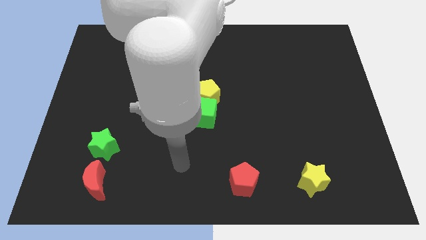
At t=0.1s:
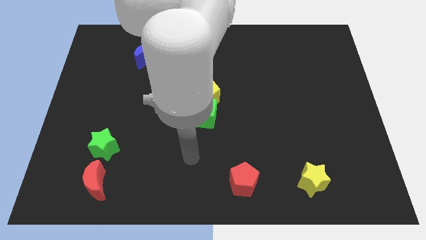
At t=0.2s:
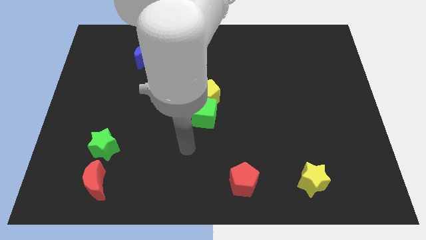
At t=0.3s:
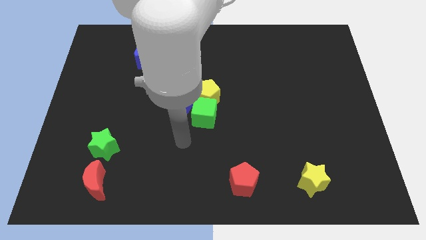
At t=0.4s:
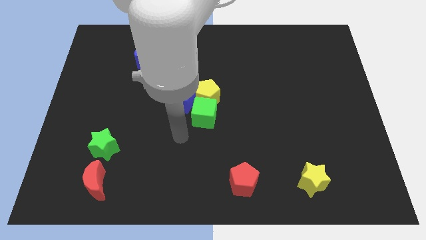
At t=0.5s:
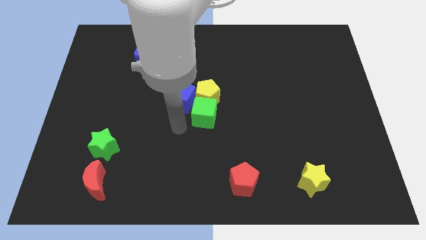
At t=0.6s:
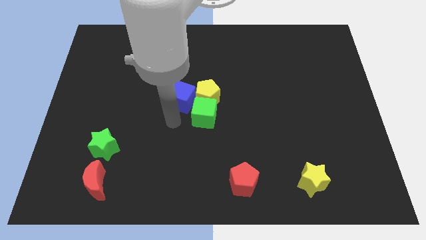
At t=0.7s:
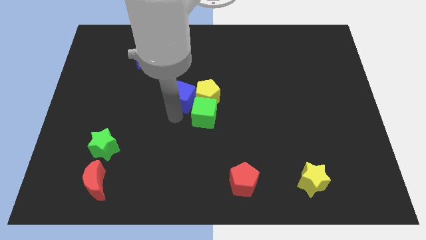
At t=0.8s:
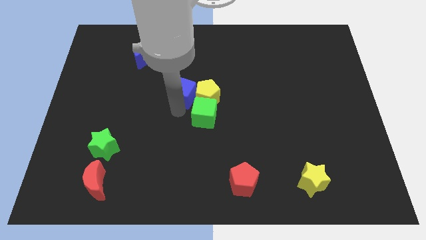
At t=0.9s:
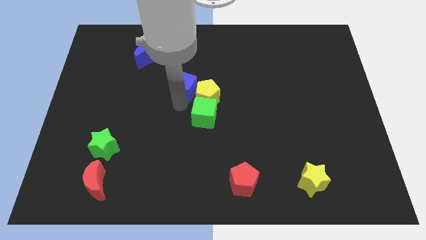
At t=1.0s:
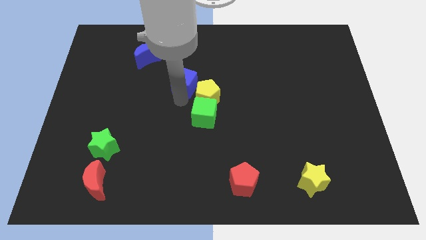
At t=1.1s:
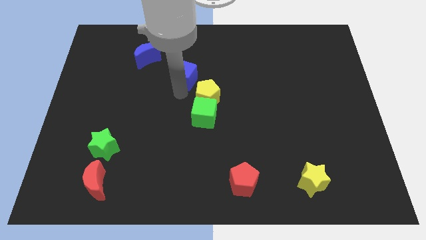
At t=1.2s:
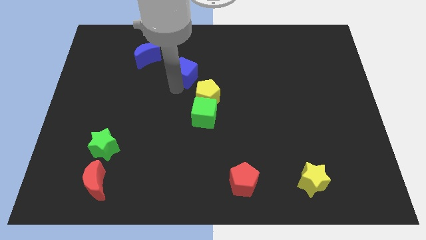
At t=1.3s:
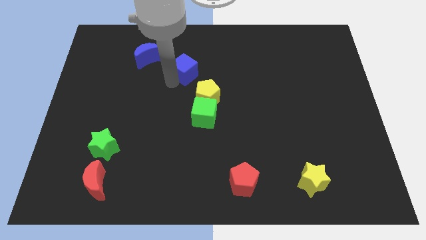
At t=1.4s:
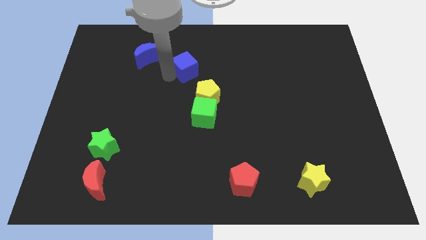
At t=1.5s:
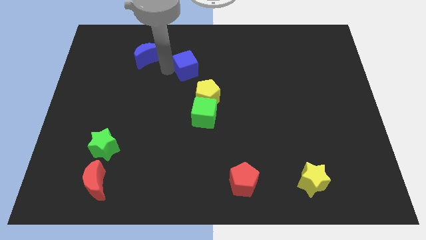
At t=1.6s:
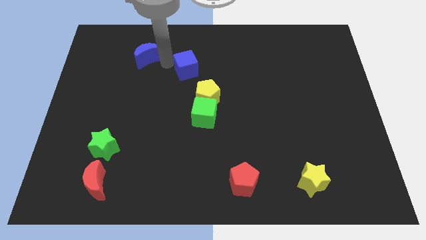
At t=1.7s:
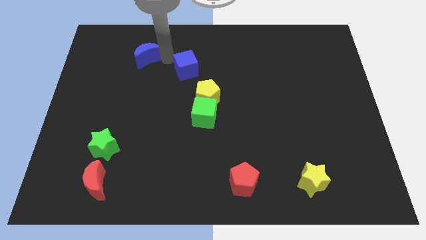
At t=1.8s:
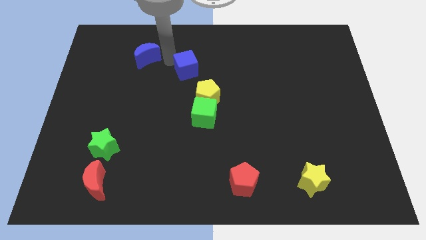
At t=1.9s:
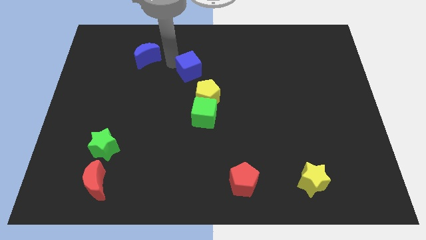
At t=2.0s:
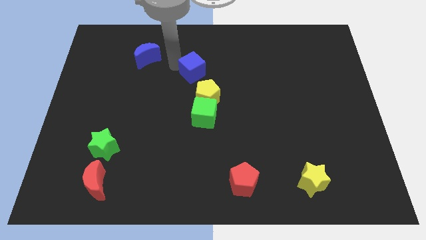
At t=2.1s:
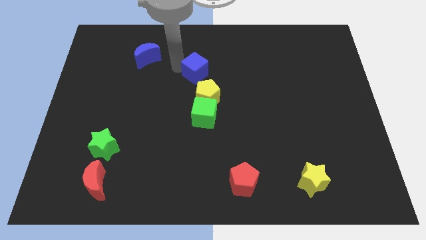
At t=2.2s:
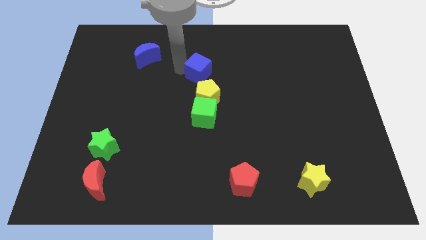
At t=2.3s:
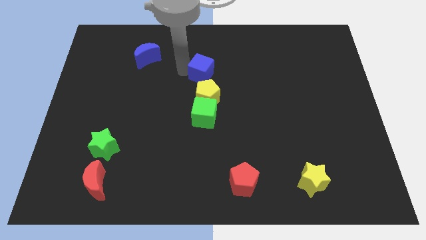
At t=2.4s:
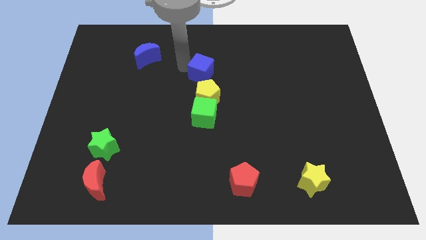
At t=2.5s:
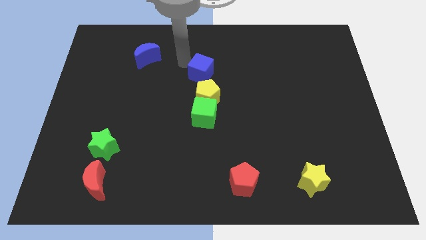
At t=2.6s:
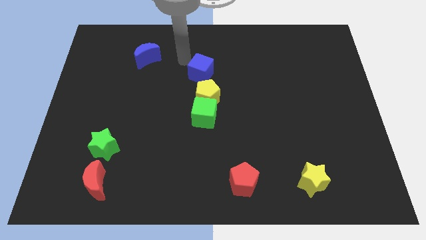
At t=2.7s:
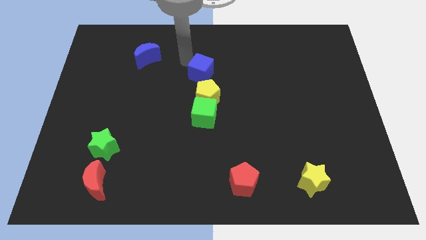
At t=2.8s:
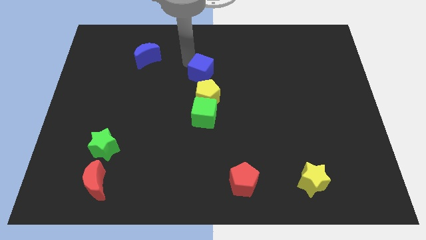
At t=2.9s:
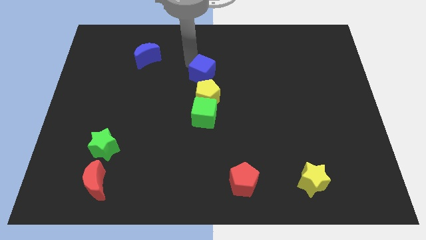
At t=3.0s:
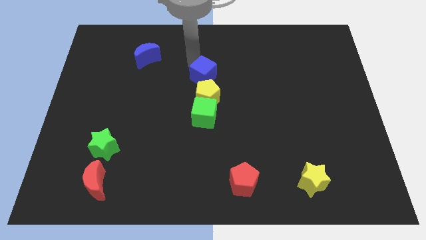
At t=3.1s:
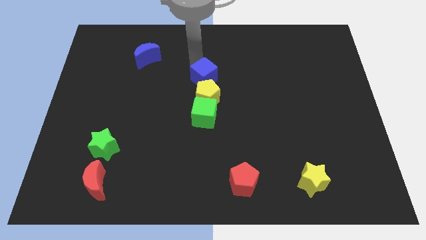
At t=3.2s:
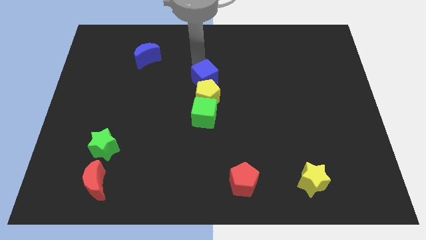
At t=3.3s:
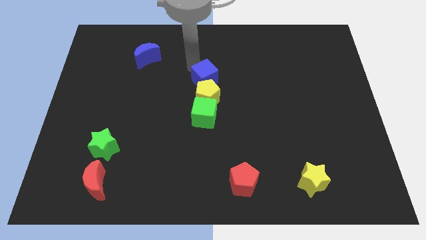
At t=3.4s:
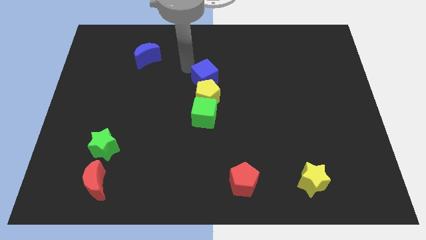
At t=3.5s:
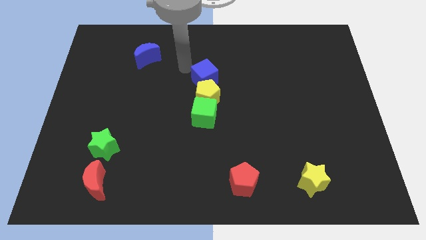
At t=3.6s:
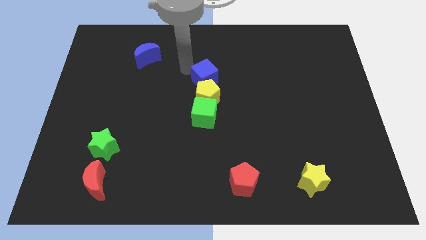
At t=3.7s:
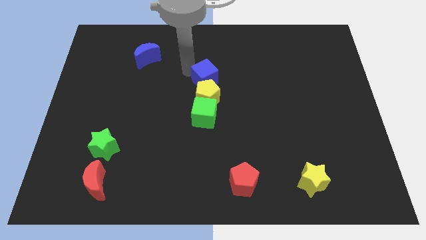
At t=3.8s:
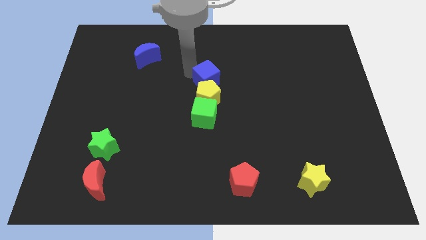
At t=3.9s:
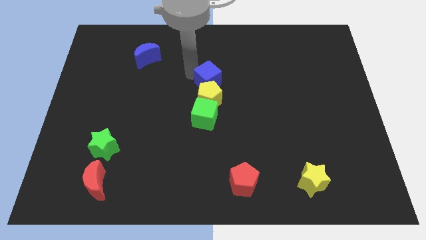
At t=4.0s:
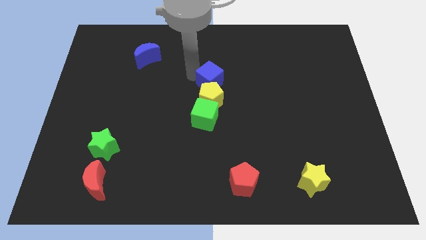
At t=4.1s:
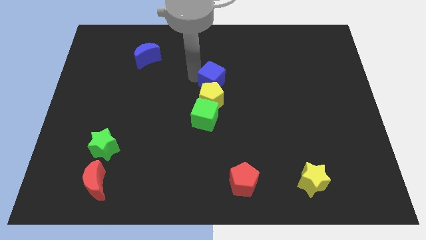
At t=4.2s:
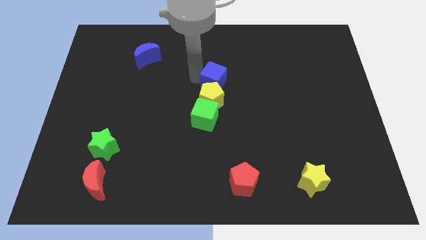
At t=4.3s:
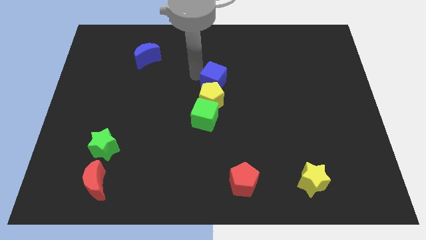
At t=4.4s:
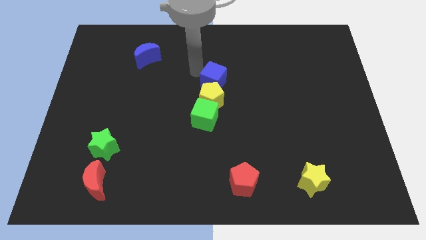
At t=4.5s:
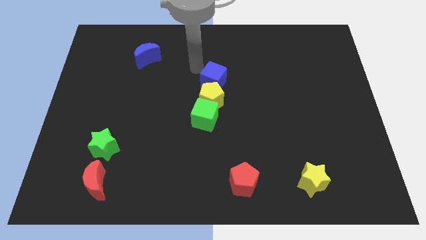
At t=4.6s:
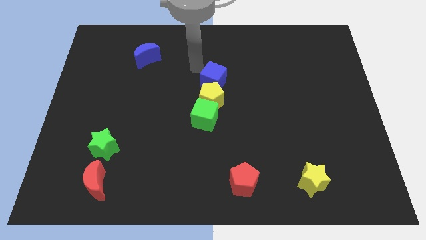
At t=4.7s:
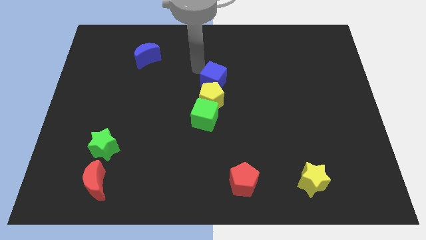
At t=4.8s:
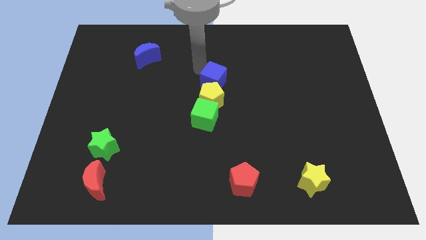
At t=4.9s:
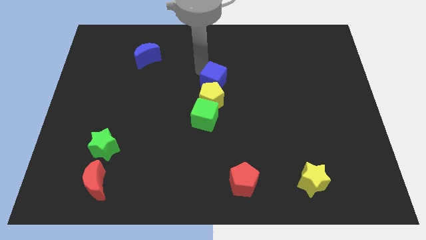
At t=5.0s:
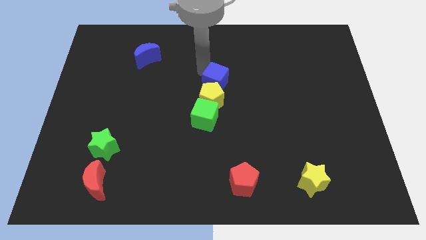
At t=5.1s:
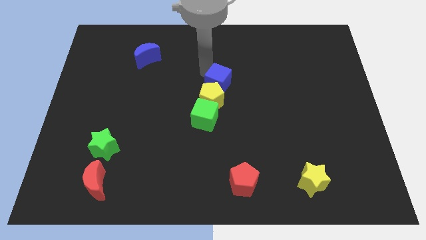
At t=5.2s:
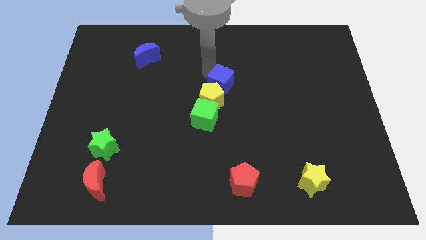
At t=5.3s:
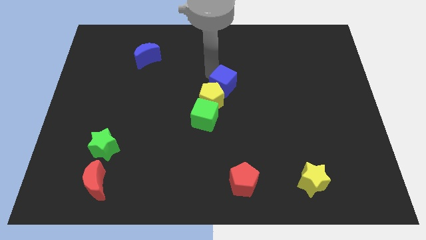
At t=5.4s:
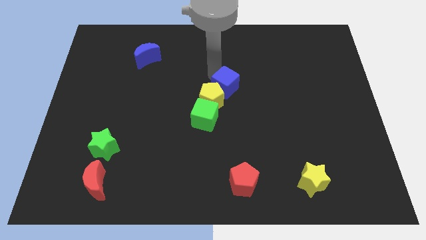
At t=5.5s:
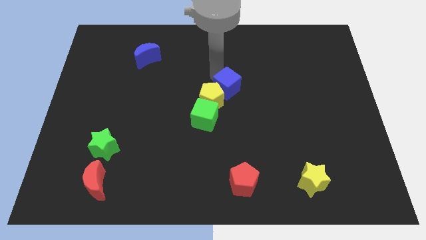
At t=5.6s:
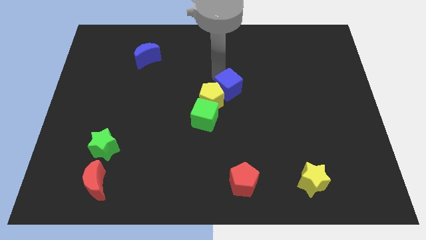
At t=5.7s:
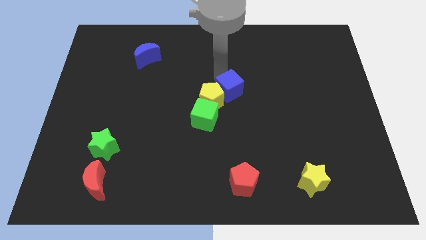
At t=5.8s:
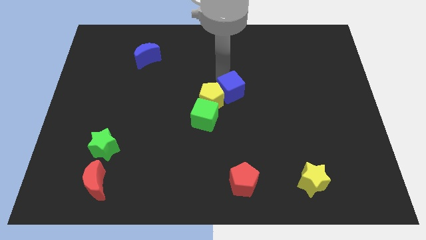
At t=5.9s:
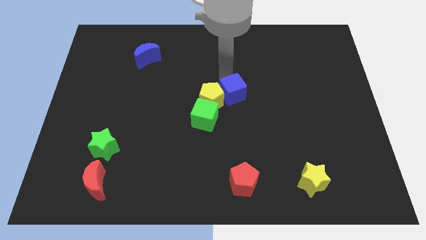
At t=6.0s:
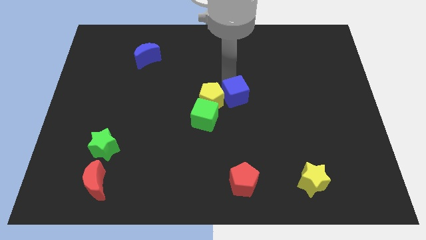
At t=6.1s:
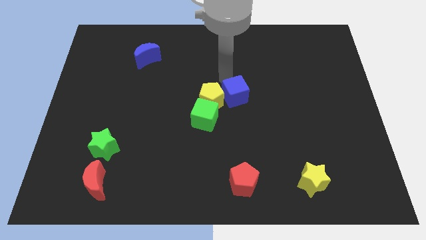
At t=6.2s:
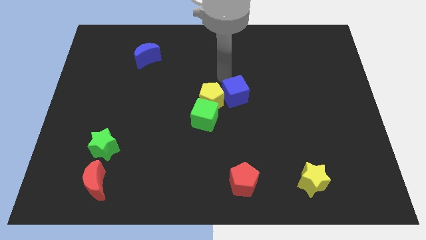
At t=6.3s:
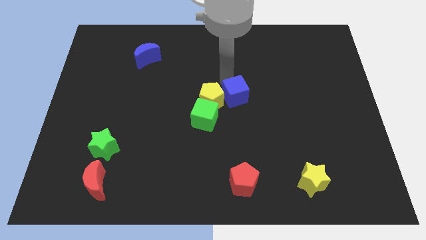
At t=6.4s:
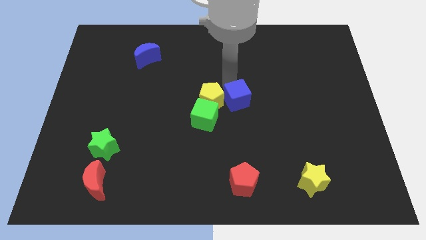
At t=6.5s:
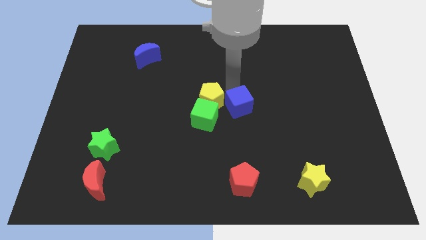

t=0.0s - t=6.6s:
move the blue cube right of the green cube
